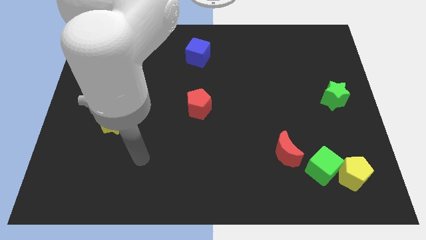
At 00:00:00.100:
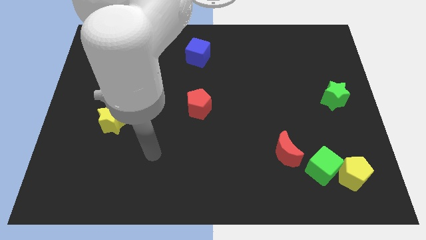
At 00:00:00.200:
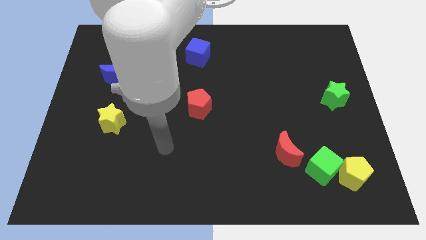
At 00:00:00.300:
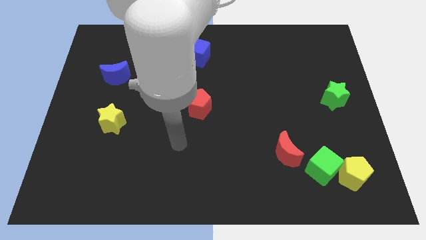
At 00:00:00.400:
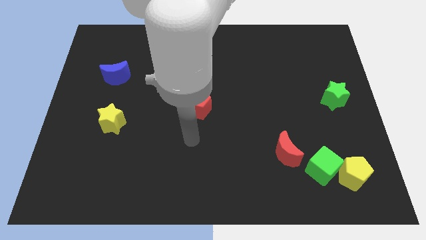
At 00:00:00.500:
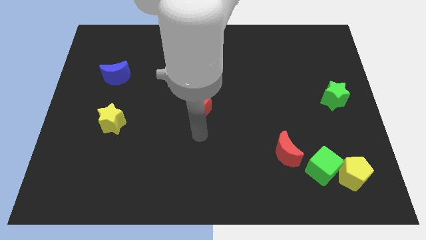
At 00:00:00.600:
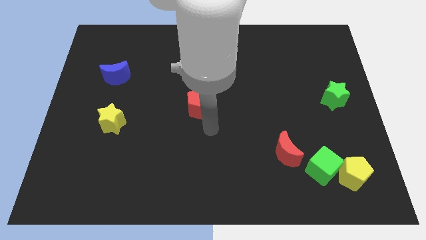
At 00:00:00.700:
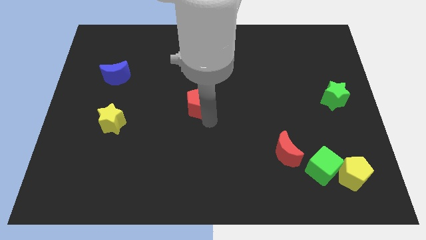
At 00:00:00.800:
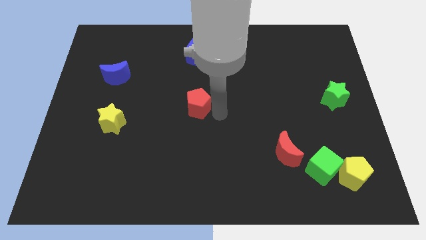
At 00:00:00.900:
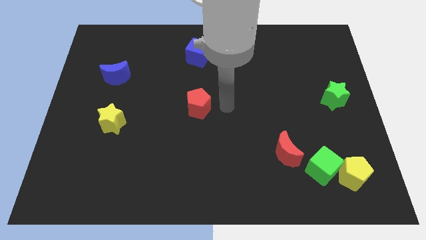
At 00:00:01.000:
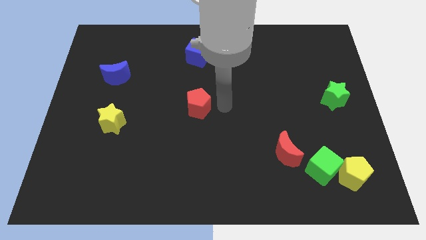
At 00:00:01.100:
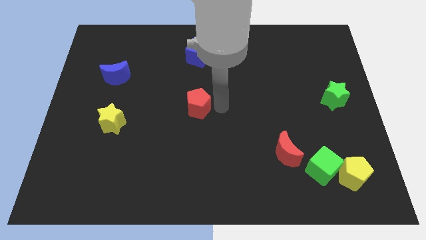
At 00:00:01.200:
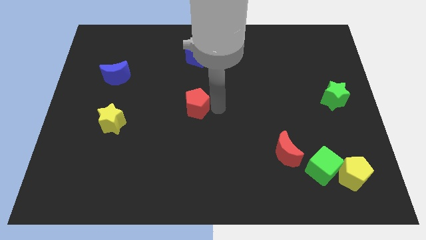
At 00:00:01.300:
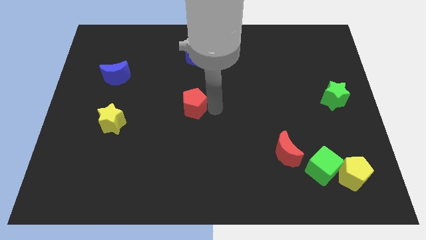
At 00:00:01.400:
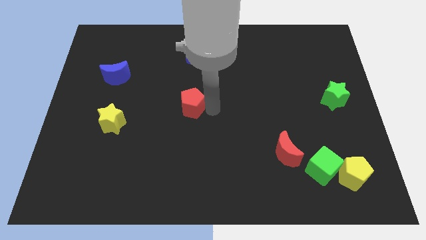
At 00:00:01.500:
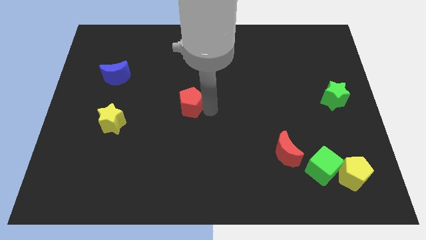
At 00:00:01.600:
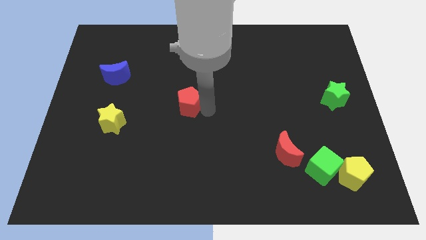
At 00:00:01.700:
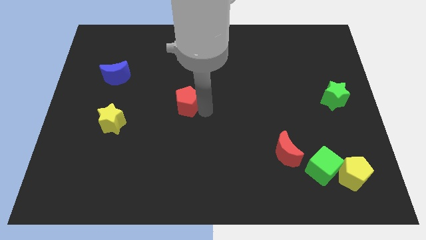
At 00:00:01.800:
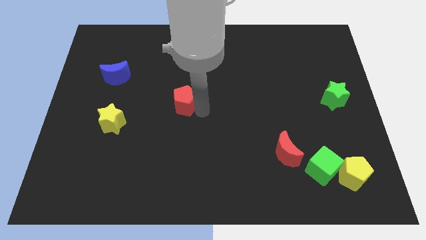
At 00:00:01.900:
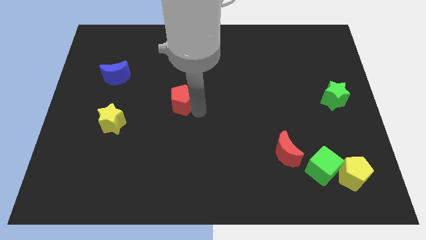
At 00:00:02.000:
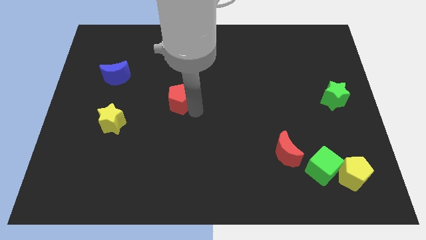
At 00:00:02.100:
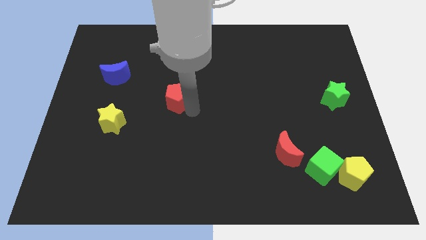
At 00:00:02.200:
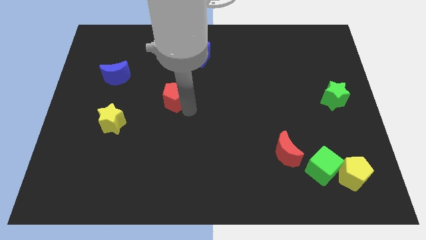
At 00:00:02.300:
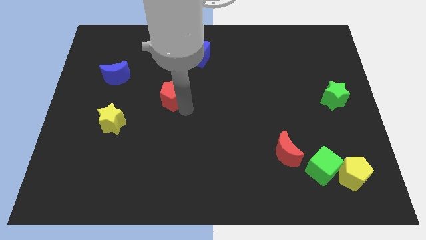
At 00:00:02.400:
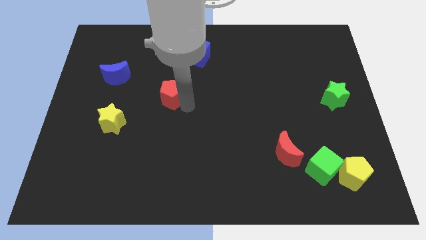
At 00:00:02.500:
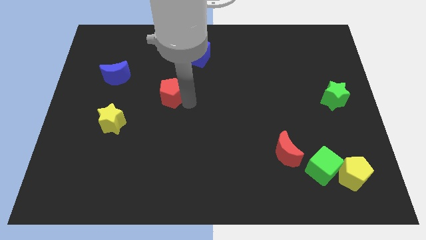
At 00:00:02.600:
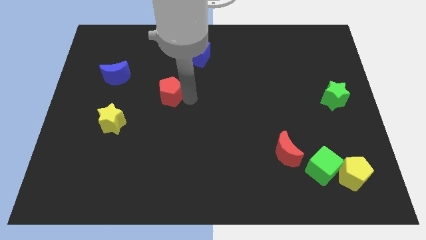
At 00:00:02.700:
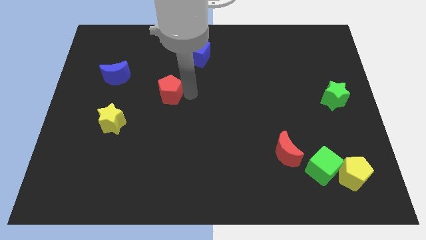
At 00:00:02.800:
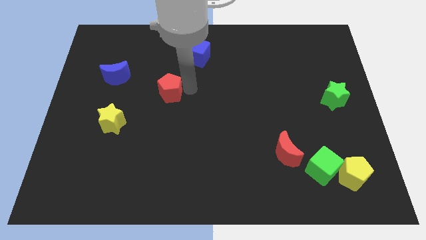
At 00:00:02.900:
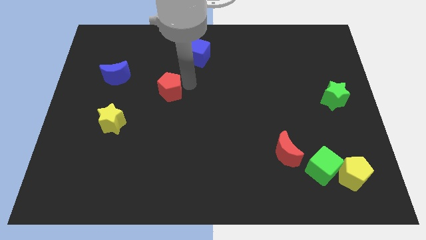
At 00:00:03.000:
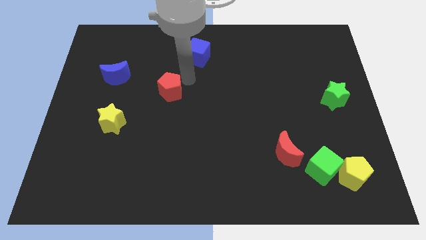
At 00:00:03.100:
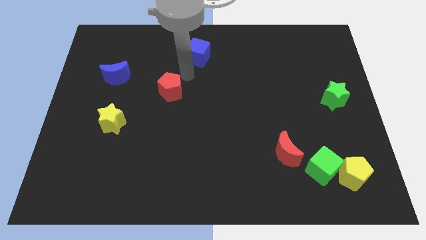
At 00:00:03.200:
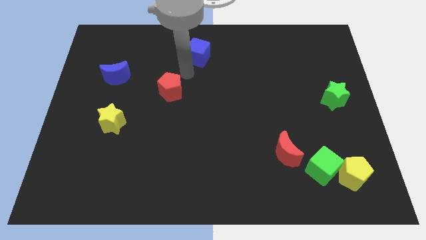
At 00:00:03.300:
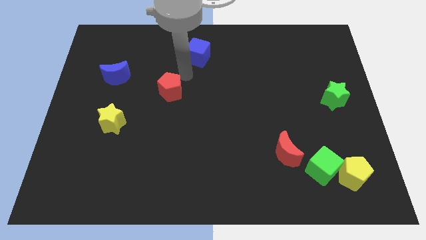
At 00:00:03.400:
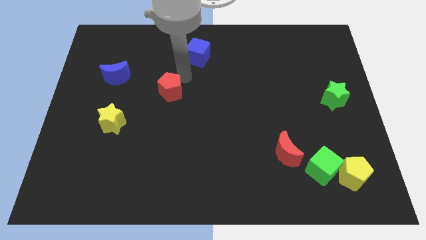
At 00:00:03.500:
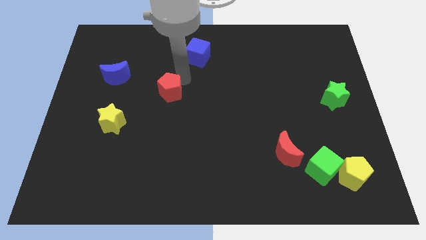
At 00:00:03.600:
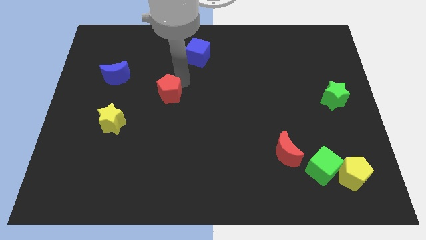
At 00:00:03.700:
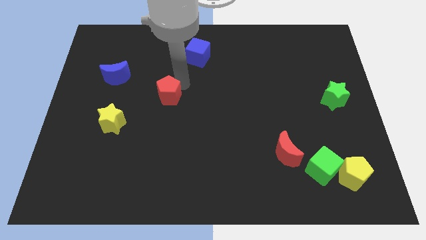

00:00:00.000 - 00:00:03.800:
move the red pentagon to the left a bit

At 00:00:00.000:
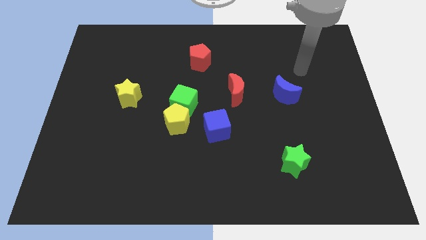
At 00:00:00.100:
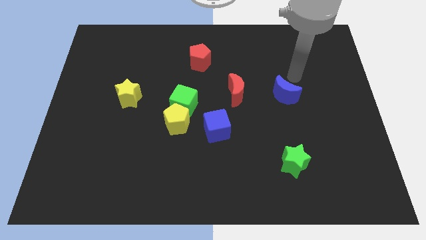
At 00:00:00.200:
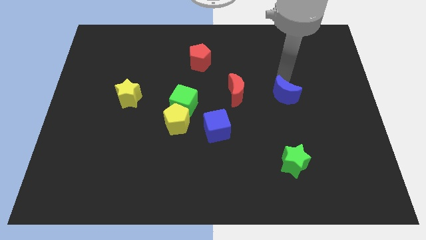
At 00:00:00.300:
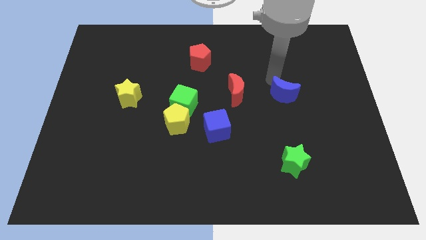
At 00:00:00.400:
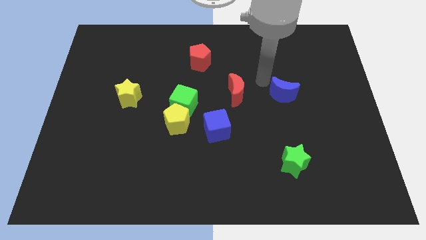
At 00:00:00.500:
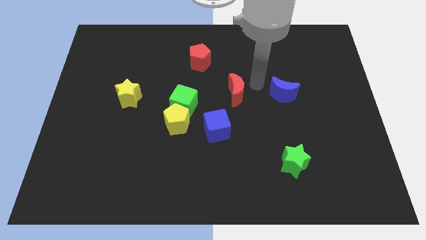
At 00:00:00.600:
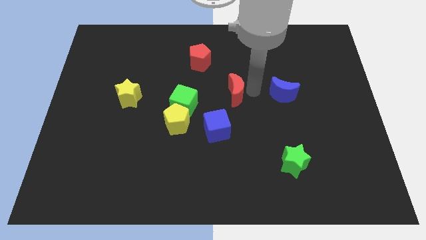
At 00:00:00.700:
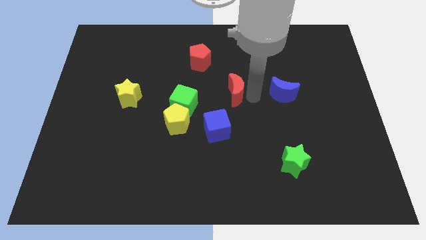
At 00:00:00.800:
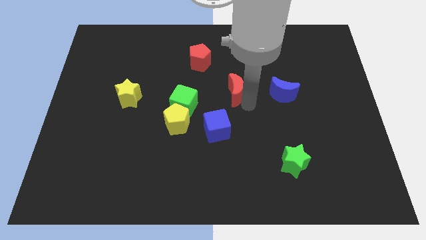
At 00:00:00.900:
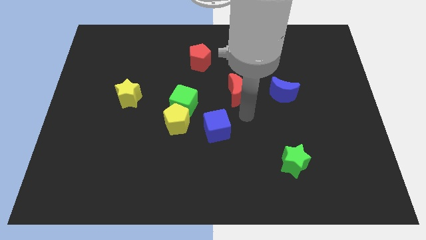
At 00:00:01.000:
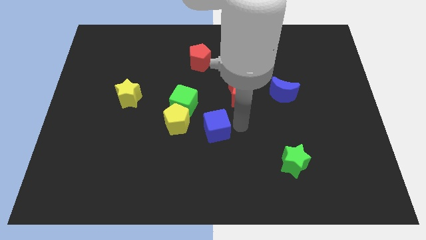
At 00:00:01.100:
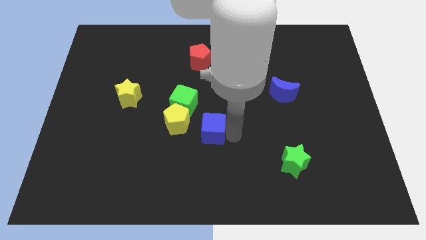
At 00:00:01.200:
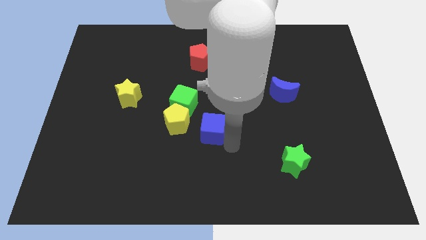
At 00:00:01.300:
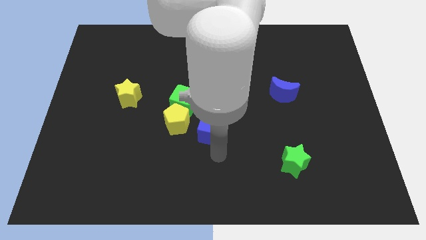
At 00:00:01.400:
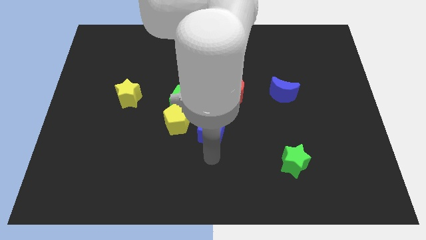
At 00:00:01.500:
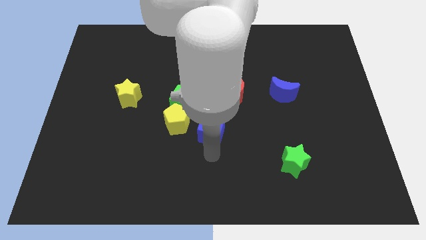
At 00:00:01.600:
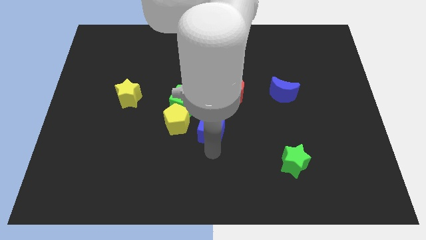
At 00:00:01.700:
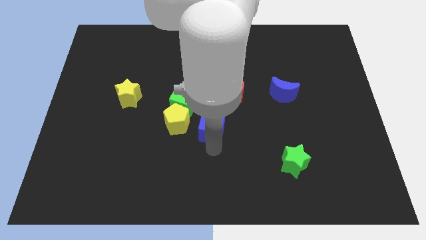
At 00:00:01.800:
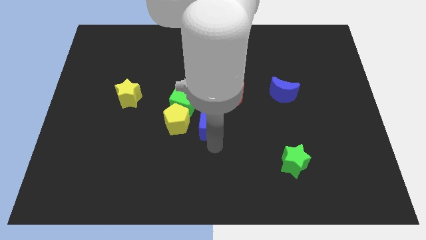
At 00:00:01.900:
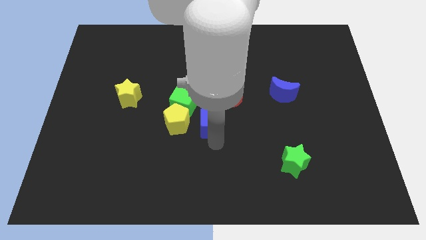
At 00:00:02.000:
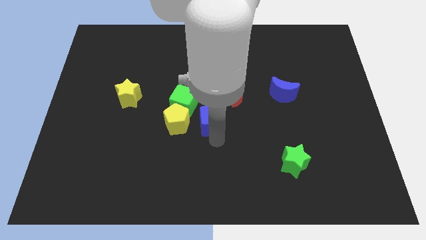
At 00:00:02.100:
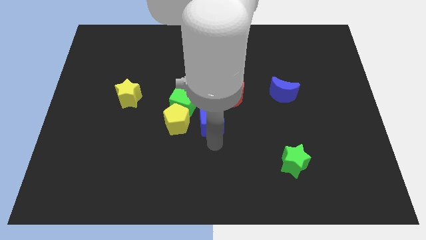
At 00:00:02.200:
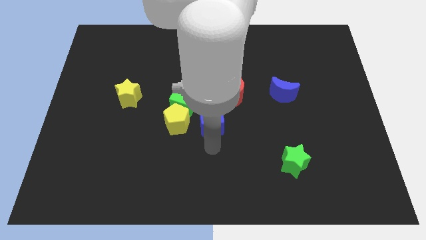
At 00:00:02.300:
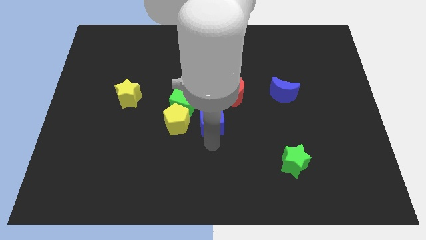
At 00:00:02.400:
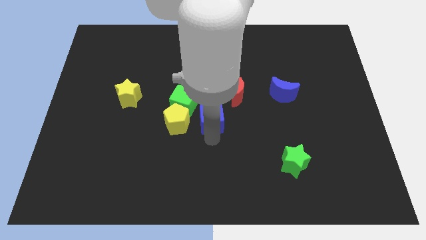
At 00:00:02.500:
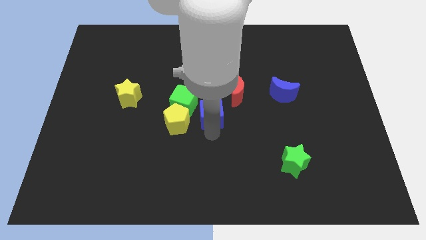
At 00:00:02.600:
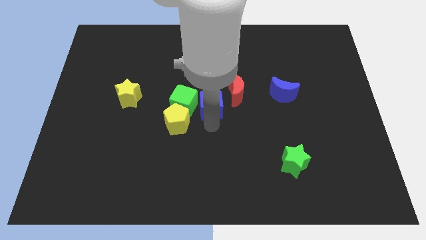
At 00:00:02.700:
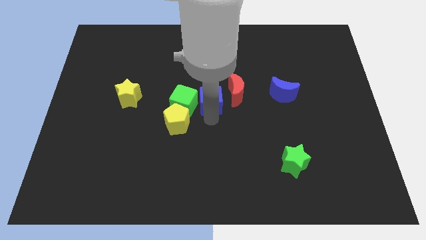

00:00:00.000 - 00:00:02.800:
slide the blue cube up slightly

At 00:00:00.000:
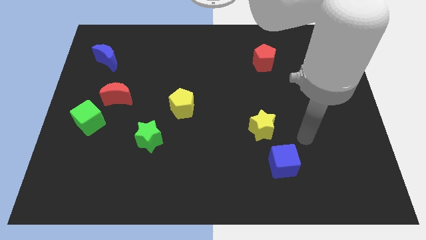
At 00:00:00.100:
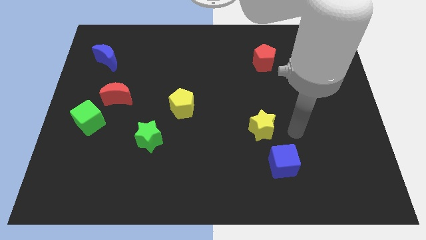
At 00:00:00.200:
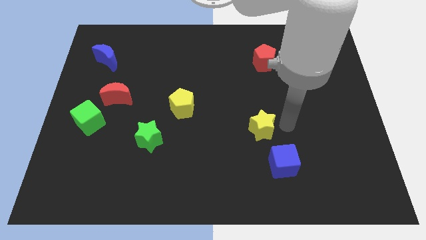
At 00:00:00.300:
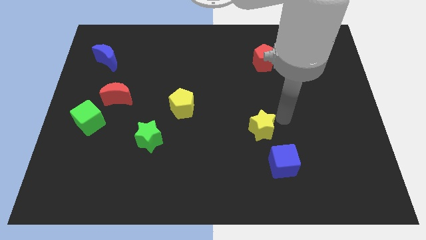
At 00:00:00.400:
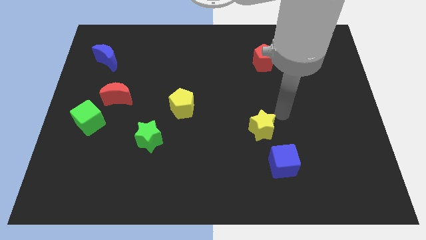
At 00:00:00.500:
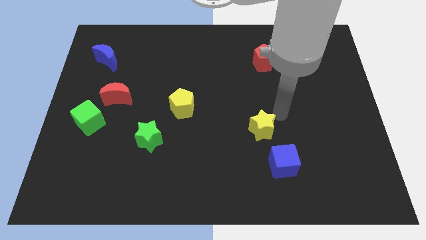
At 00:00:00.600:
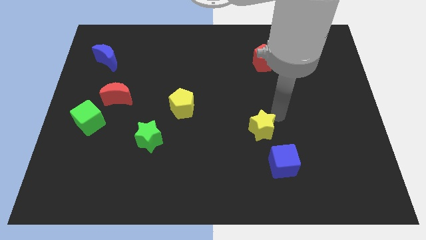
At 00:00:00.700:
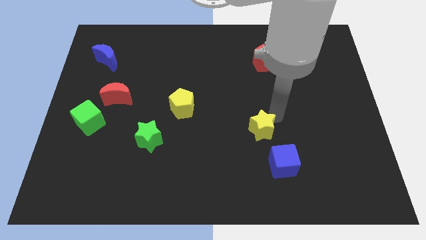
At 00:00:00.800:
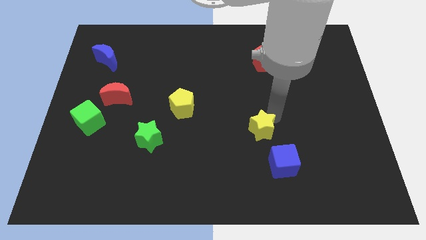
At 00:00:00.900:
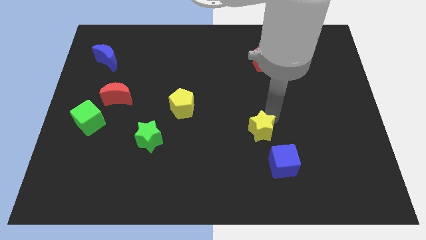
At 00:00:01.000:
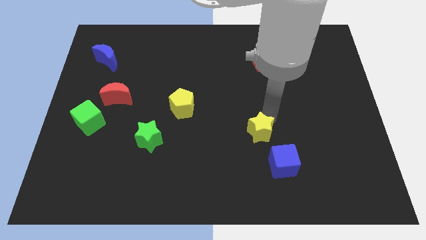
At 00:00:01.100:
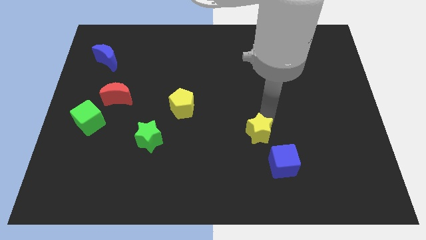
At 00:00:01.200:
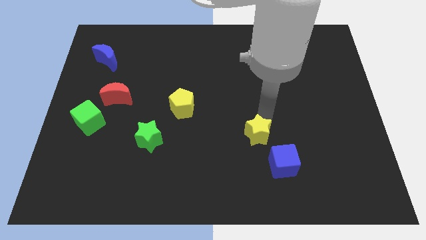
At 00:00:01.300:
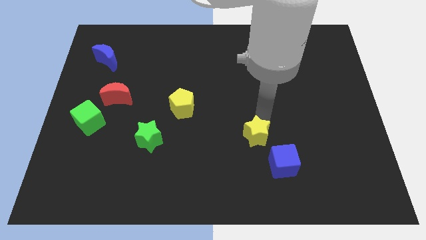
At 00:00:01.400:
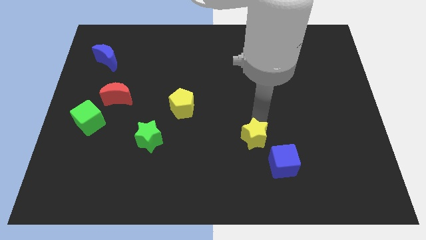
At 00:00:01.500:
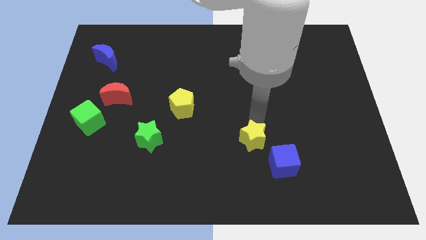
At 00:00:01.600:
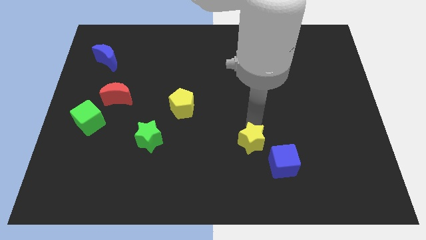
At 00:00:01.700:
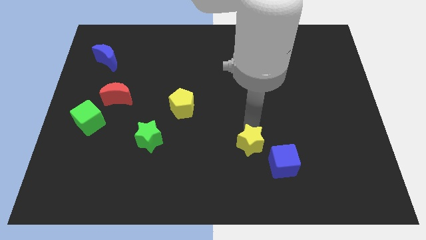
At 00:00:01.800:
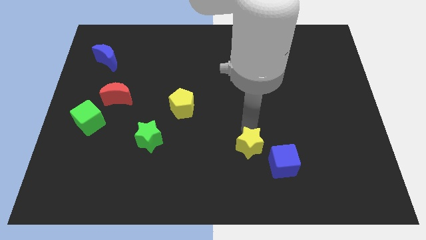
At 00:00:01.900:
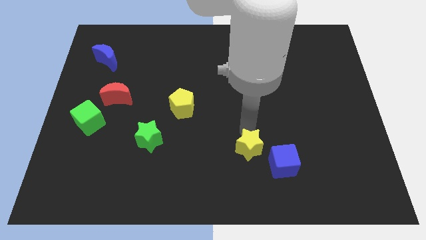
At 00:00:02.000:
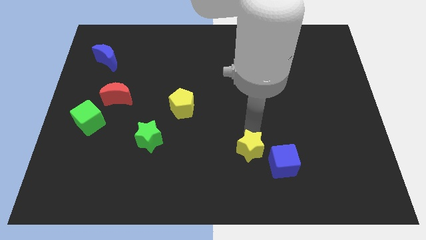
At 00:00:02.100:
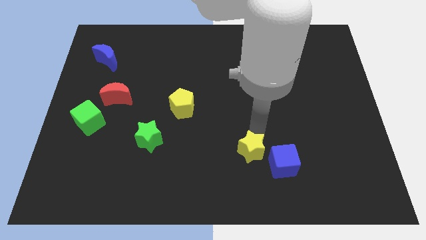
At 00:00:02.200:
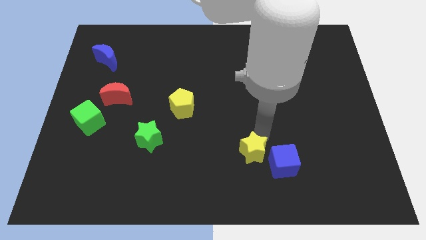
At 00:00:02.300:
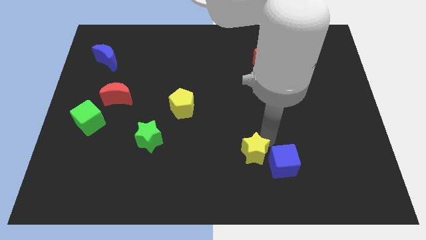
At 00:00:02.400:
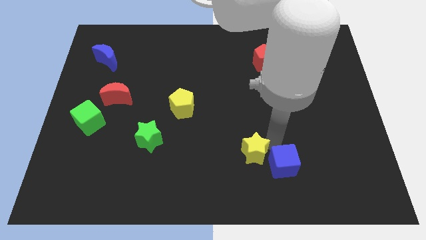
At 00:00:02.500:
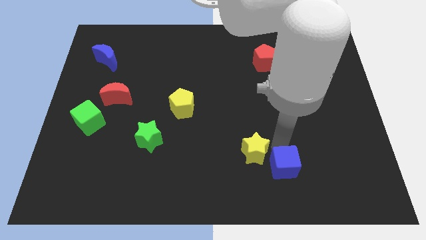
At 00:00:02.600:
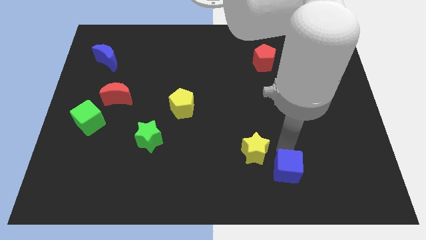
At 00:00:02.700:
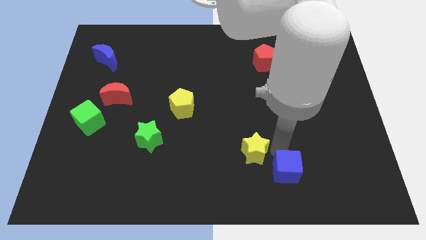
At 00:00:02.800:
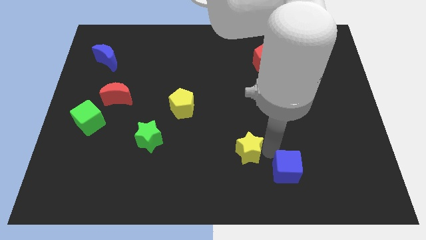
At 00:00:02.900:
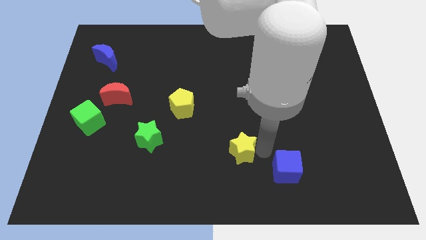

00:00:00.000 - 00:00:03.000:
move the yellow star down and then left a little
